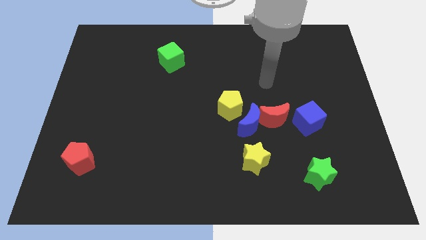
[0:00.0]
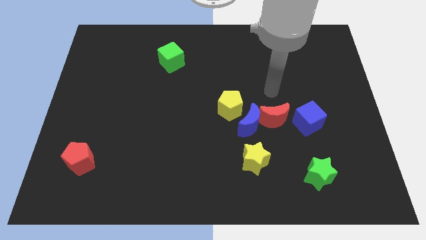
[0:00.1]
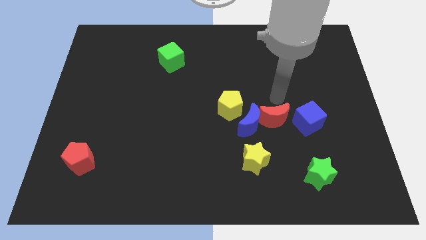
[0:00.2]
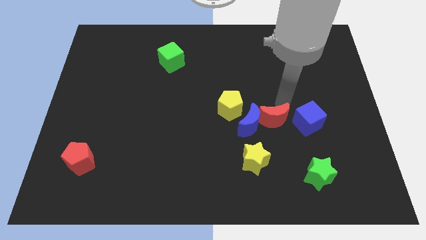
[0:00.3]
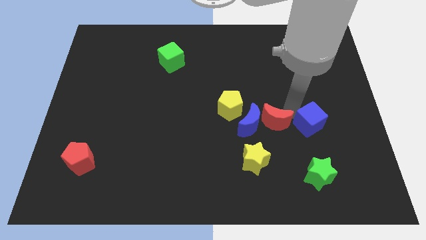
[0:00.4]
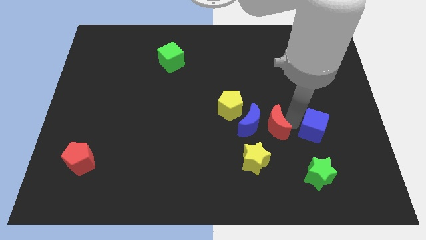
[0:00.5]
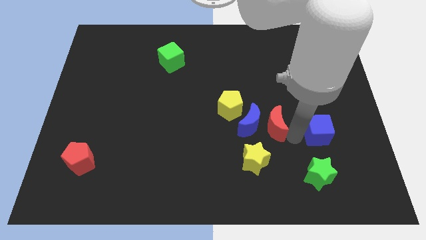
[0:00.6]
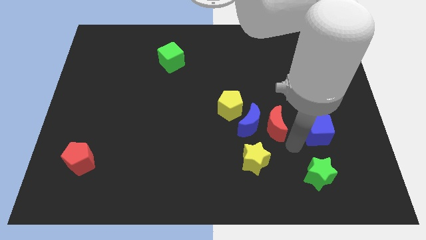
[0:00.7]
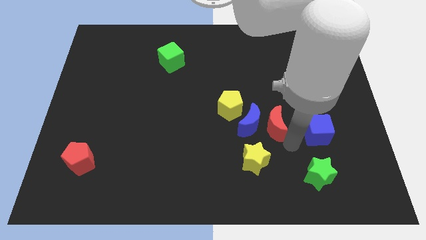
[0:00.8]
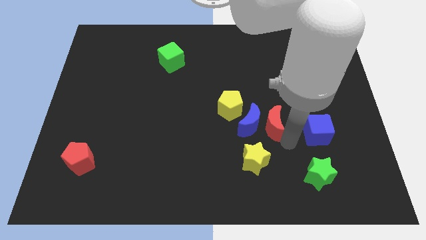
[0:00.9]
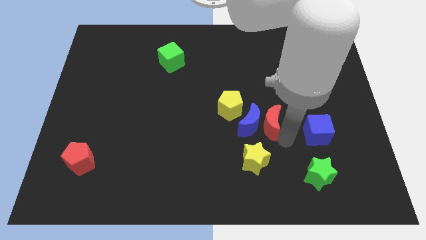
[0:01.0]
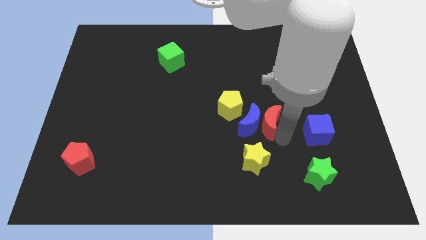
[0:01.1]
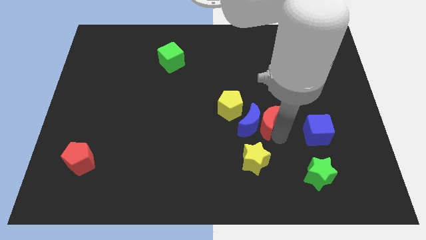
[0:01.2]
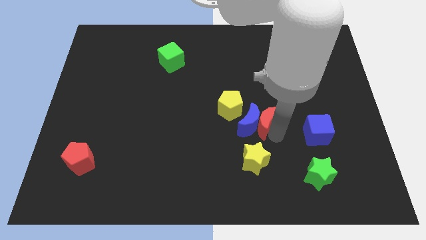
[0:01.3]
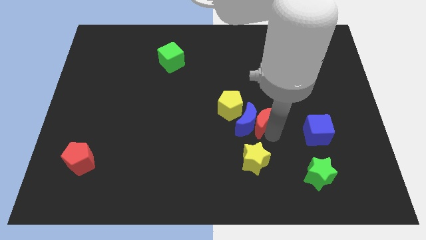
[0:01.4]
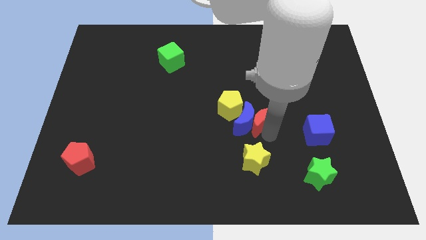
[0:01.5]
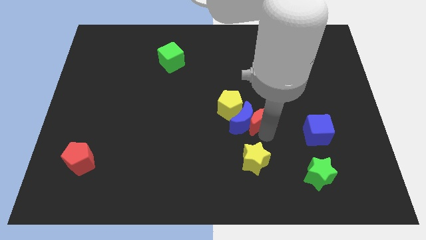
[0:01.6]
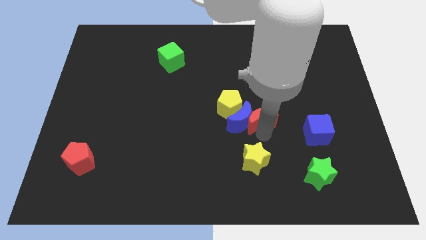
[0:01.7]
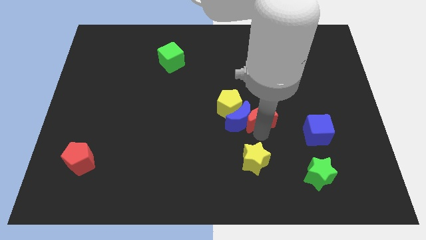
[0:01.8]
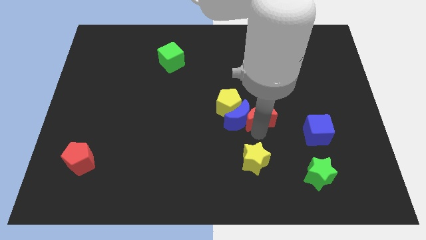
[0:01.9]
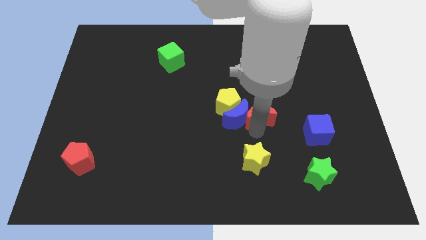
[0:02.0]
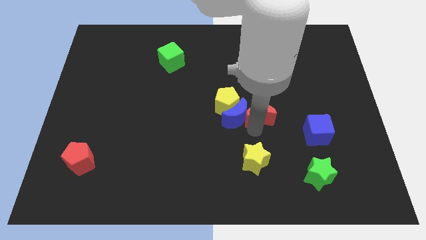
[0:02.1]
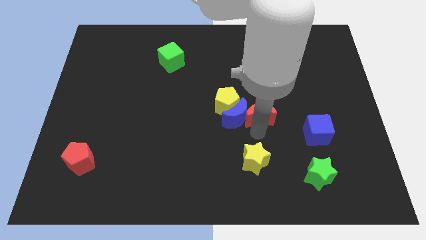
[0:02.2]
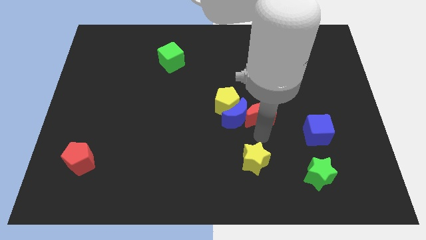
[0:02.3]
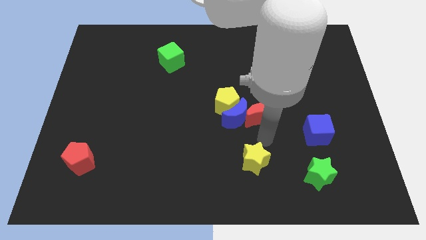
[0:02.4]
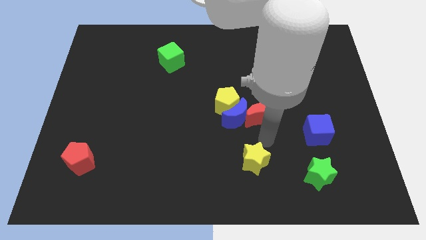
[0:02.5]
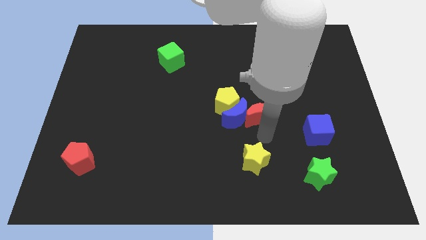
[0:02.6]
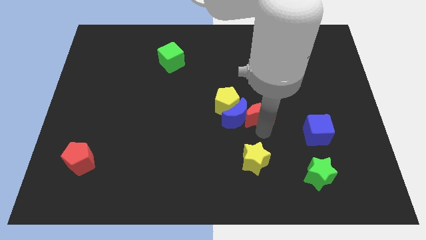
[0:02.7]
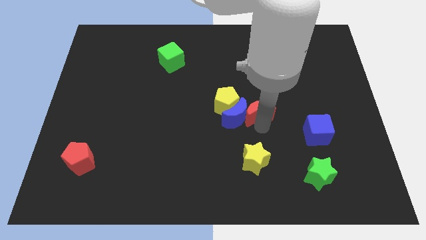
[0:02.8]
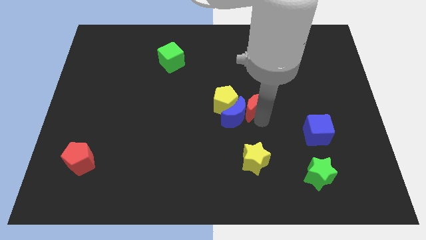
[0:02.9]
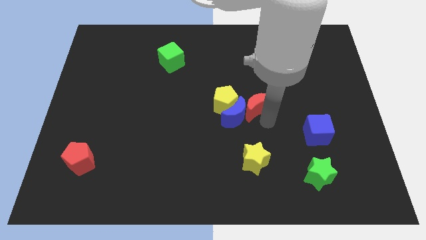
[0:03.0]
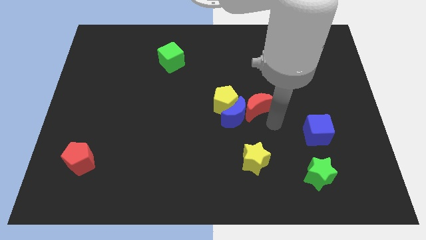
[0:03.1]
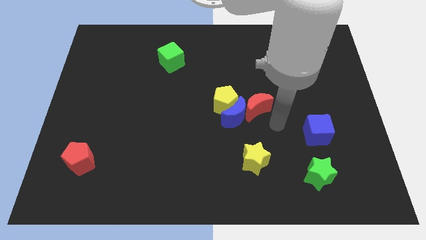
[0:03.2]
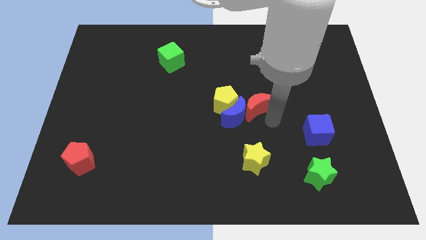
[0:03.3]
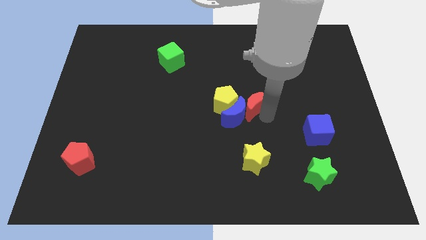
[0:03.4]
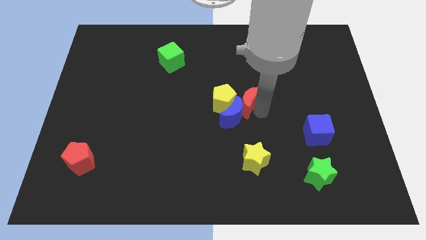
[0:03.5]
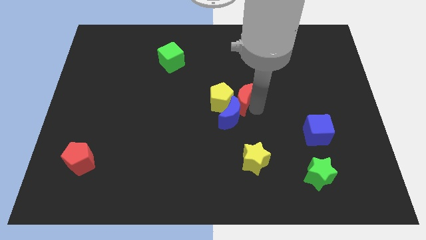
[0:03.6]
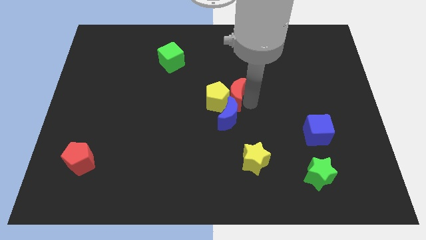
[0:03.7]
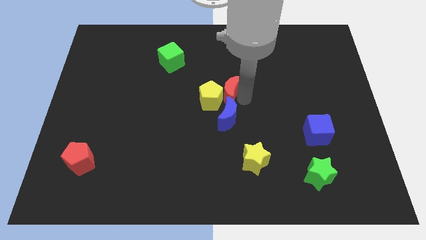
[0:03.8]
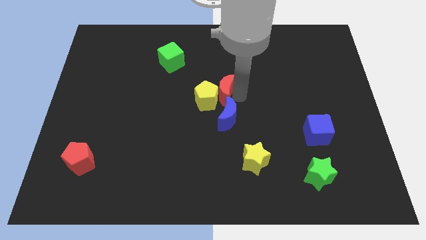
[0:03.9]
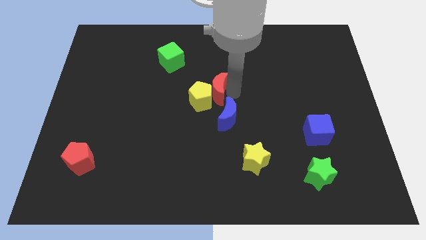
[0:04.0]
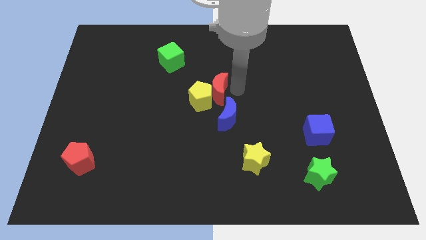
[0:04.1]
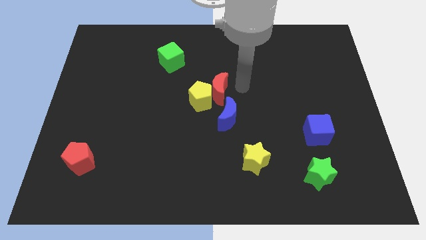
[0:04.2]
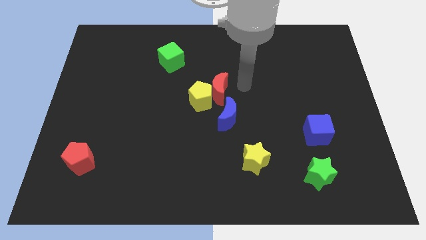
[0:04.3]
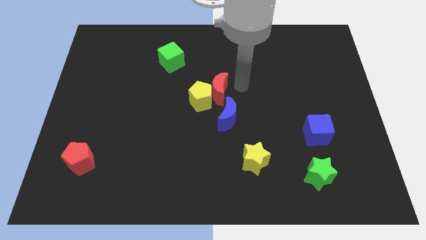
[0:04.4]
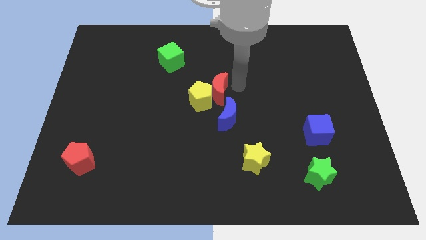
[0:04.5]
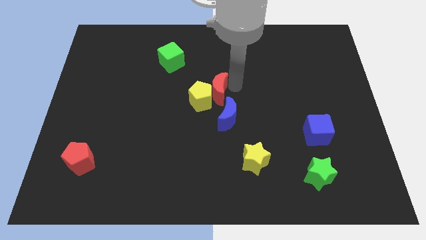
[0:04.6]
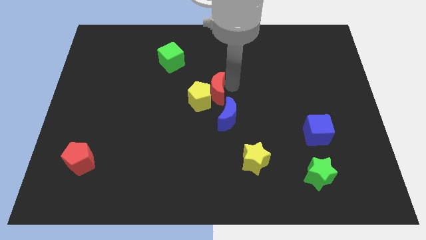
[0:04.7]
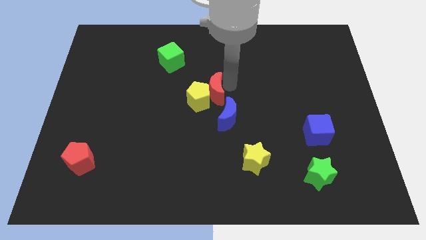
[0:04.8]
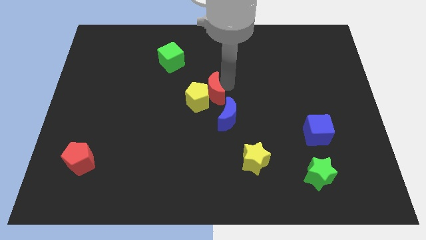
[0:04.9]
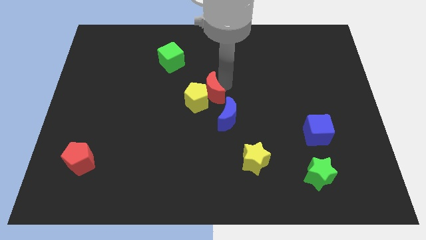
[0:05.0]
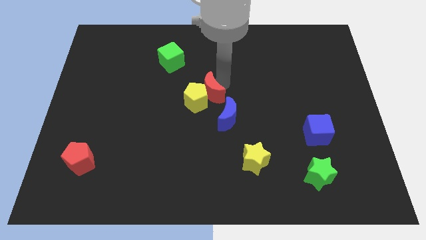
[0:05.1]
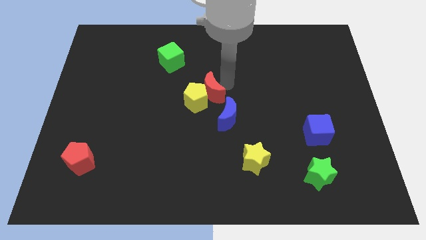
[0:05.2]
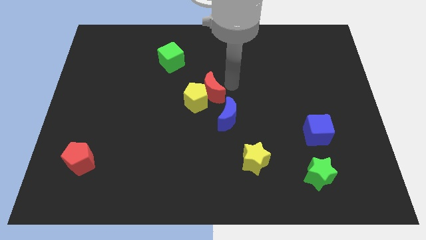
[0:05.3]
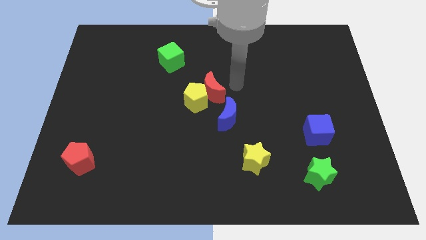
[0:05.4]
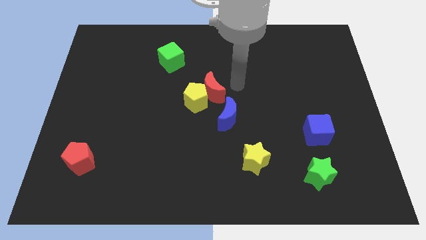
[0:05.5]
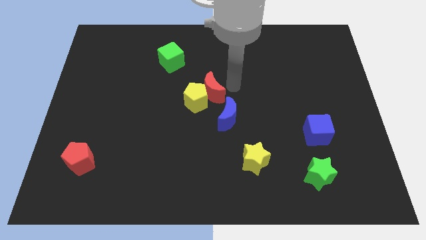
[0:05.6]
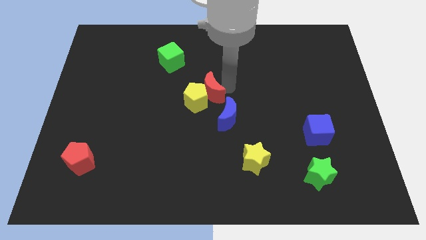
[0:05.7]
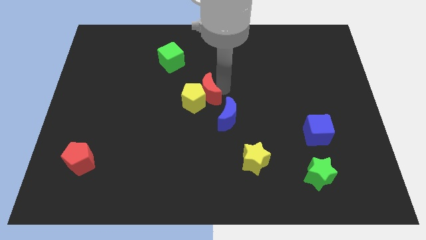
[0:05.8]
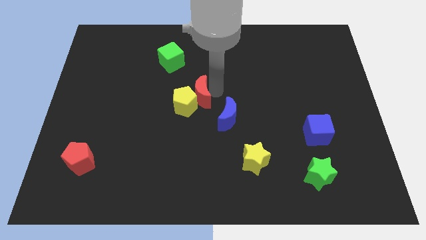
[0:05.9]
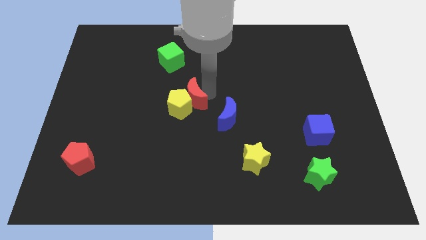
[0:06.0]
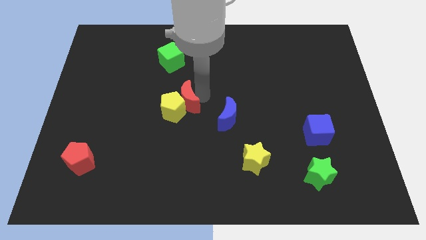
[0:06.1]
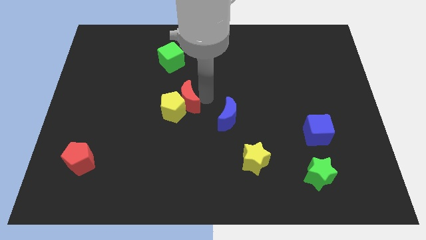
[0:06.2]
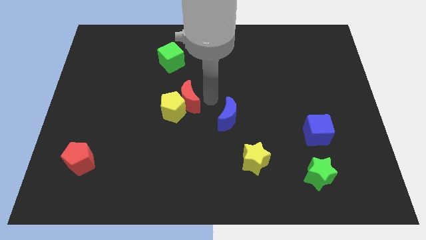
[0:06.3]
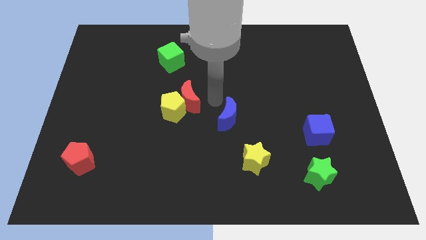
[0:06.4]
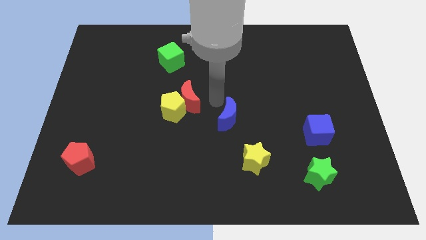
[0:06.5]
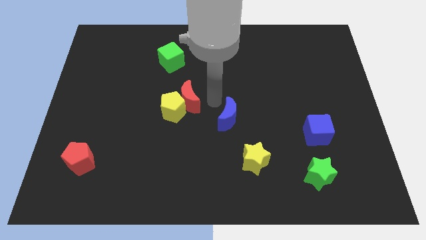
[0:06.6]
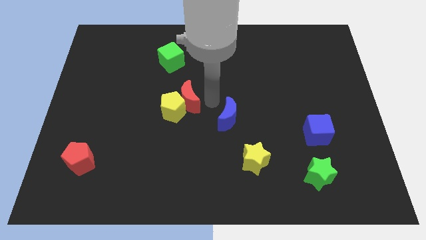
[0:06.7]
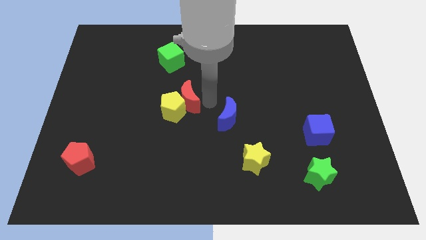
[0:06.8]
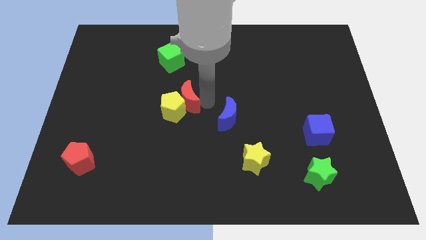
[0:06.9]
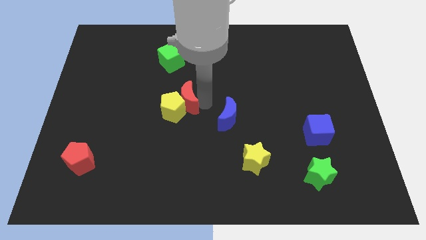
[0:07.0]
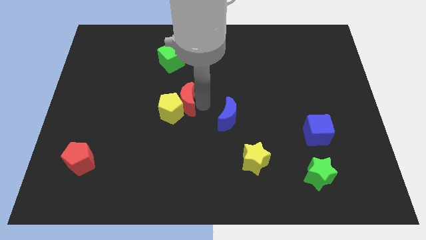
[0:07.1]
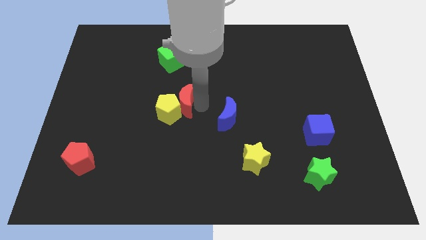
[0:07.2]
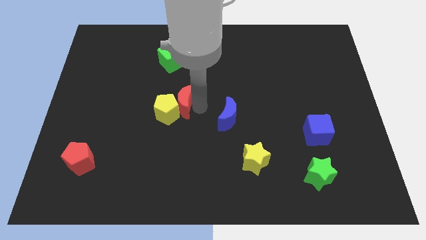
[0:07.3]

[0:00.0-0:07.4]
move the red moon to the left

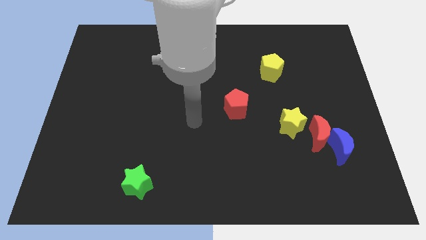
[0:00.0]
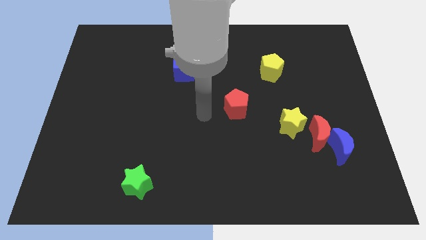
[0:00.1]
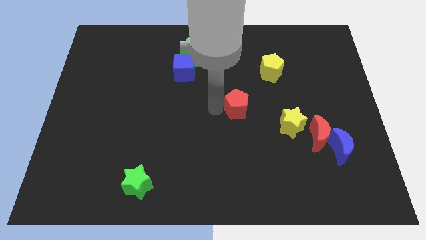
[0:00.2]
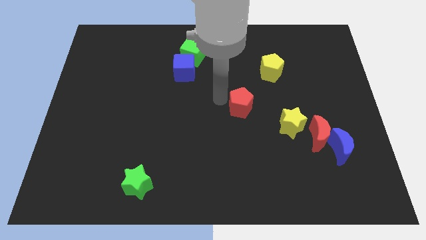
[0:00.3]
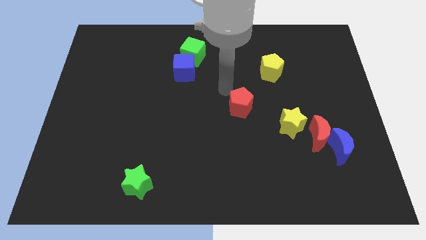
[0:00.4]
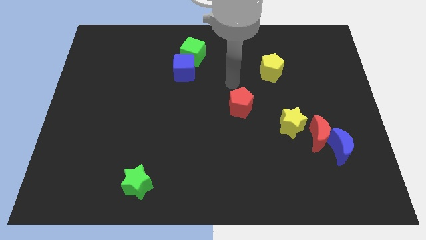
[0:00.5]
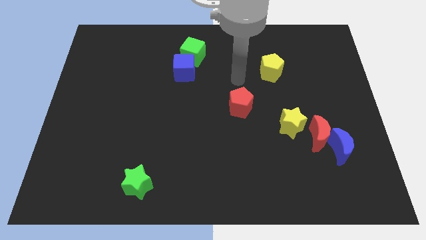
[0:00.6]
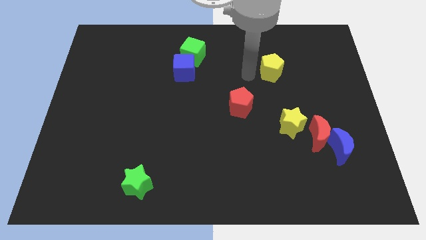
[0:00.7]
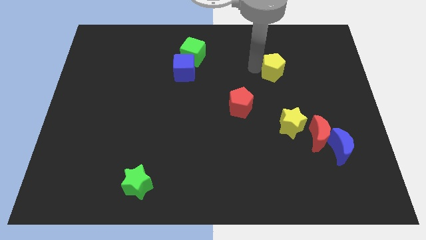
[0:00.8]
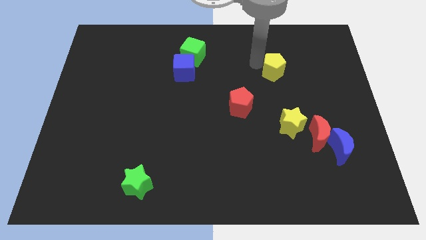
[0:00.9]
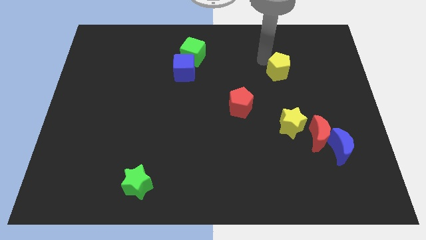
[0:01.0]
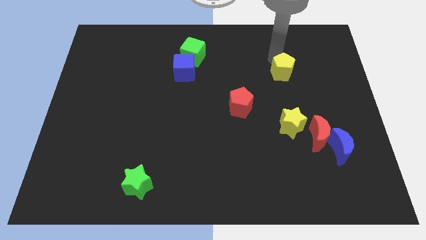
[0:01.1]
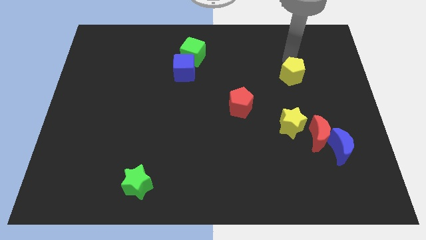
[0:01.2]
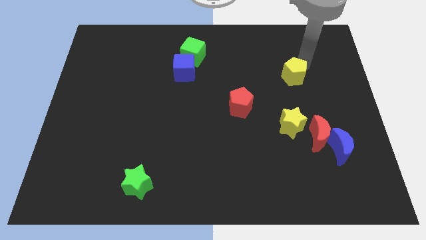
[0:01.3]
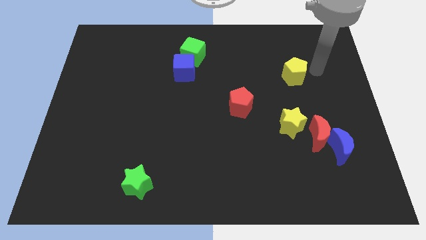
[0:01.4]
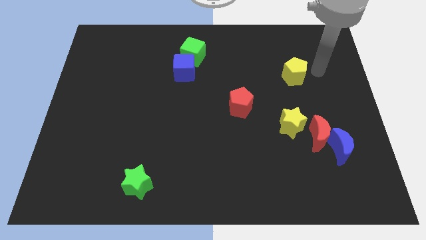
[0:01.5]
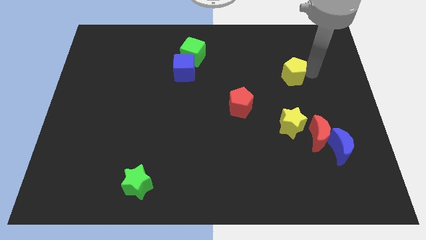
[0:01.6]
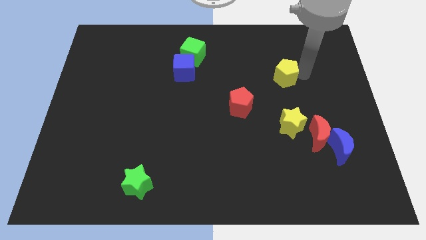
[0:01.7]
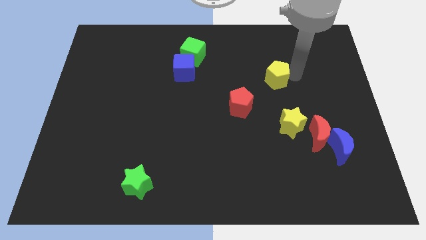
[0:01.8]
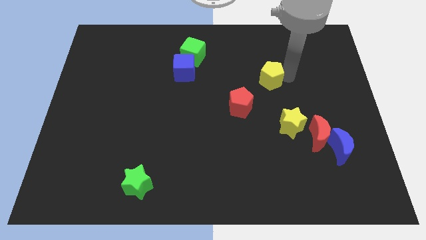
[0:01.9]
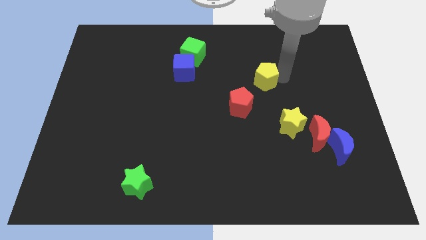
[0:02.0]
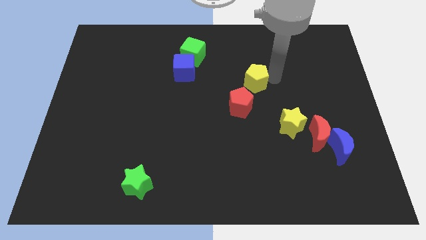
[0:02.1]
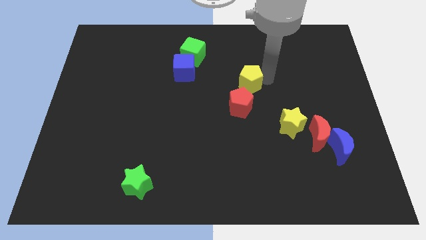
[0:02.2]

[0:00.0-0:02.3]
push the yellow pentagon a little downwards and then left
